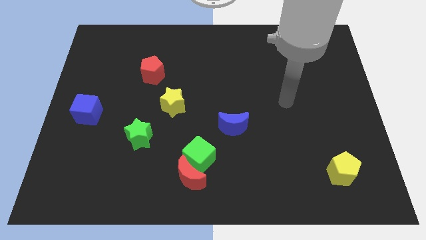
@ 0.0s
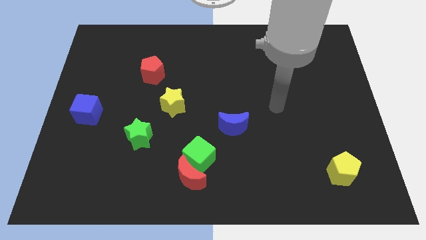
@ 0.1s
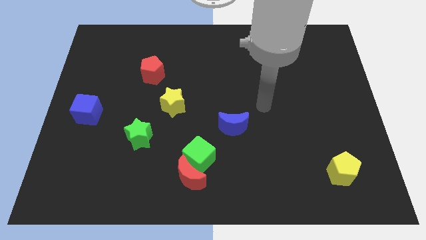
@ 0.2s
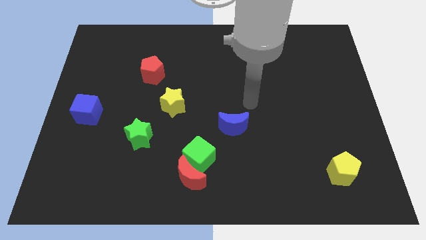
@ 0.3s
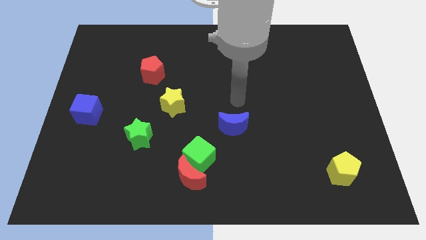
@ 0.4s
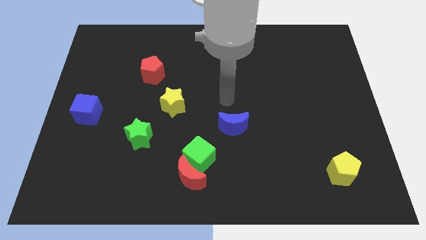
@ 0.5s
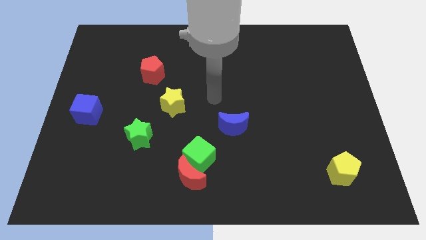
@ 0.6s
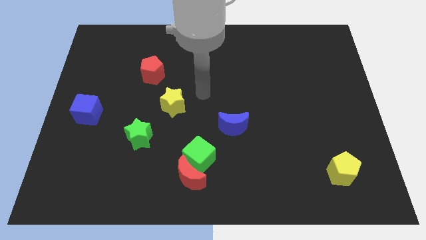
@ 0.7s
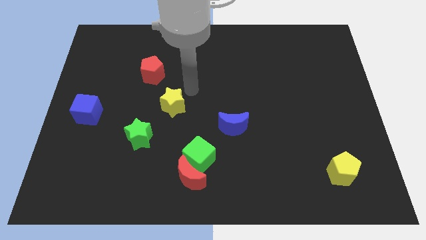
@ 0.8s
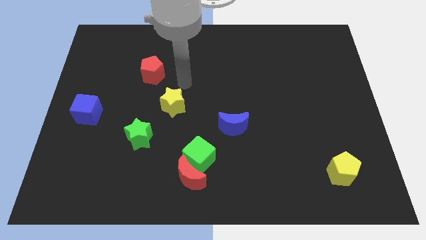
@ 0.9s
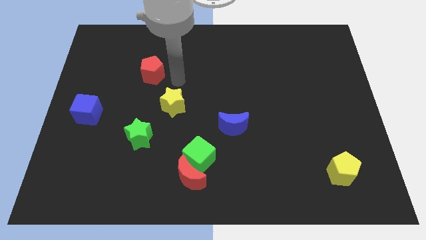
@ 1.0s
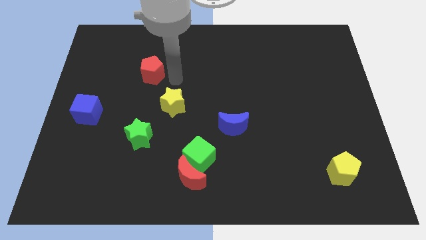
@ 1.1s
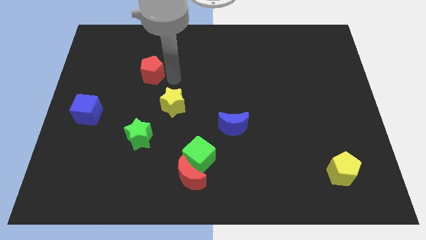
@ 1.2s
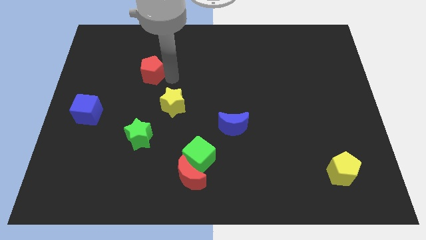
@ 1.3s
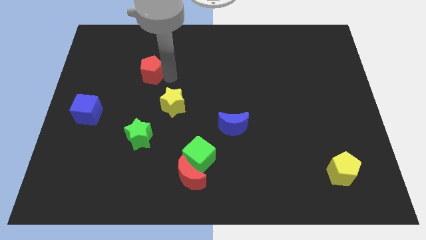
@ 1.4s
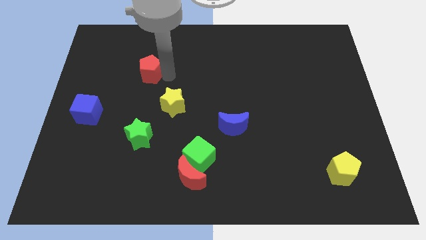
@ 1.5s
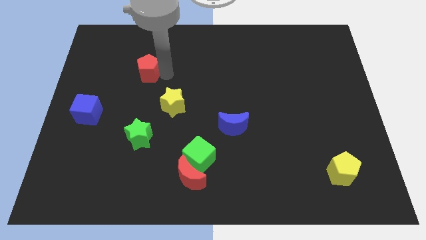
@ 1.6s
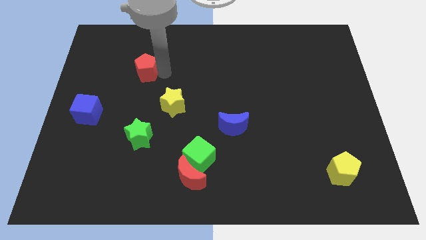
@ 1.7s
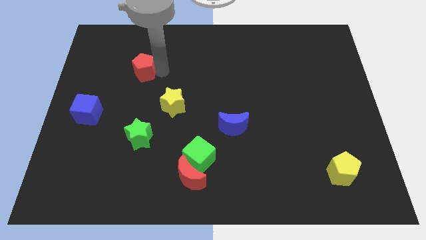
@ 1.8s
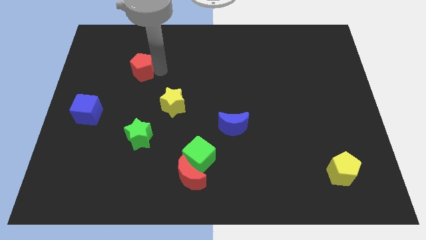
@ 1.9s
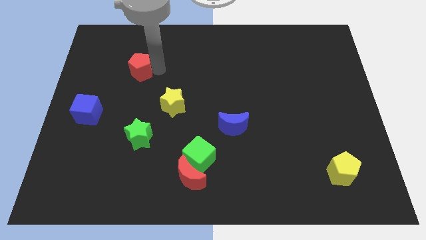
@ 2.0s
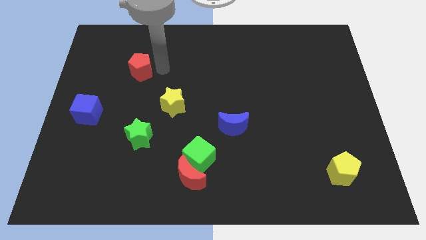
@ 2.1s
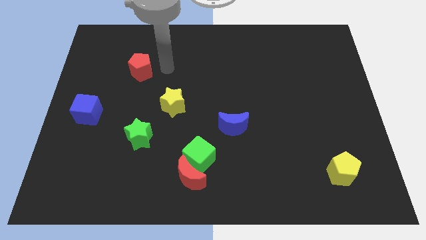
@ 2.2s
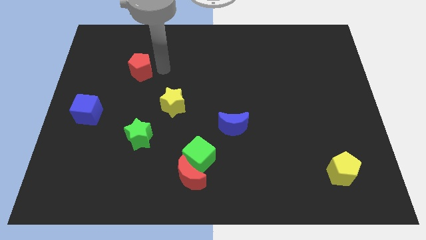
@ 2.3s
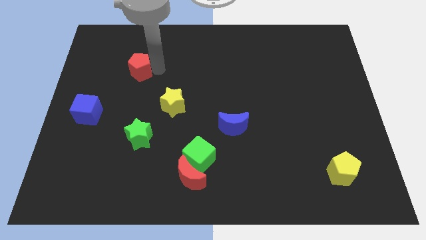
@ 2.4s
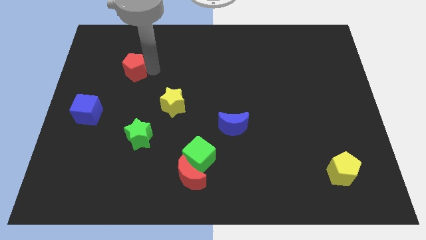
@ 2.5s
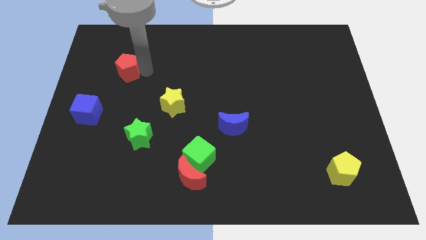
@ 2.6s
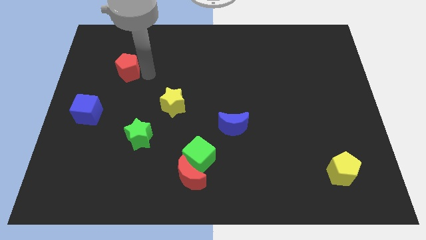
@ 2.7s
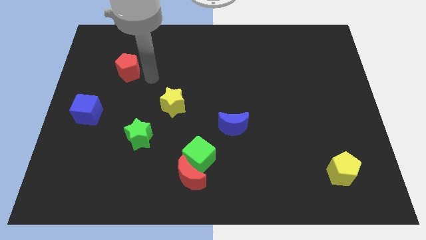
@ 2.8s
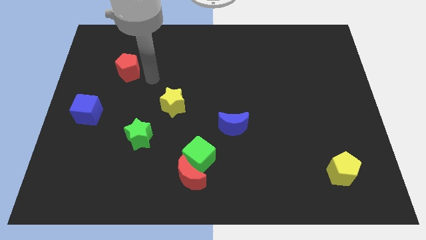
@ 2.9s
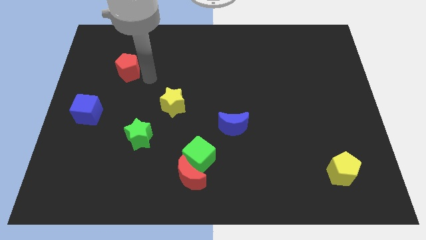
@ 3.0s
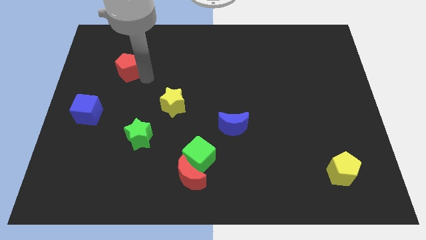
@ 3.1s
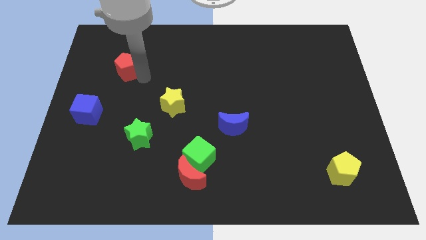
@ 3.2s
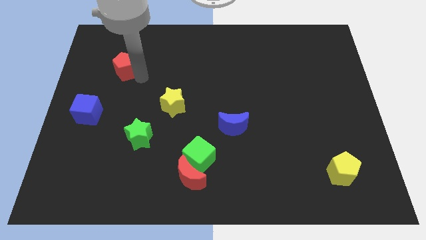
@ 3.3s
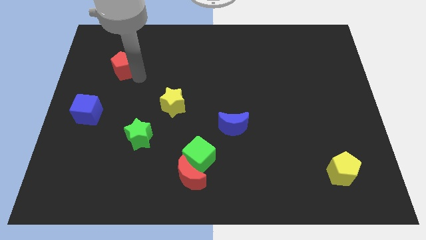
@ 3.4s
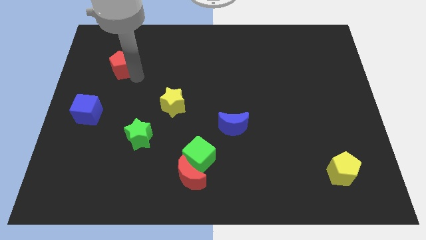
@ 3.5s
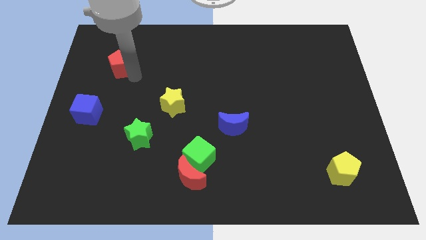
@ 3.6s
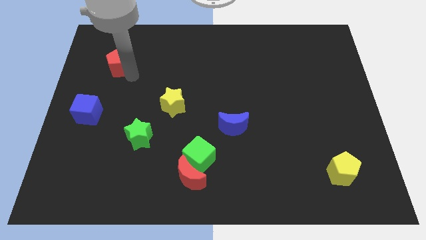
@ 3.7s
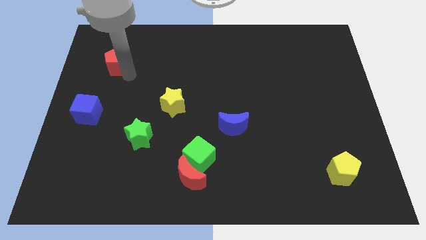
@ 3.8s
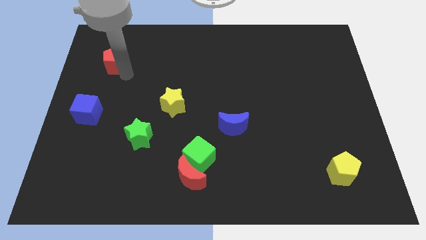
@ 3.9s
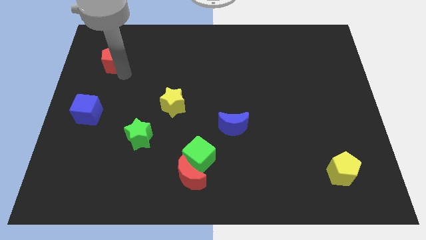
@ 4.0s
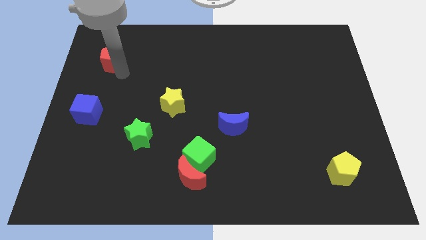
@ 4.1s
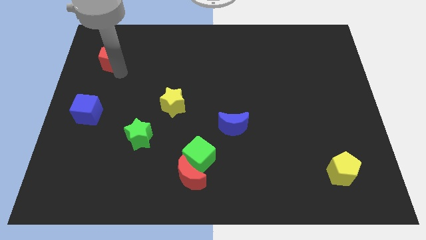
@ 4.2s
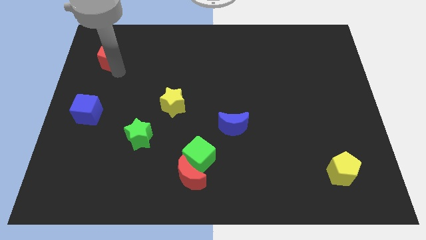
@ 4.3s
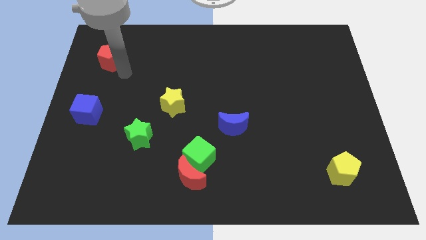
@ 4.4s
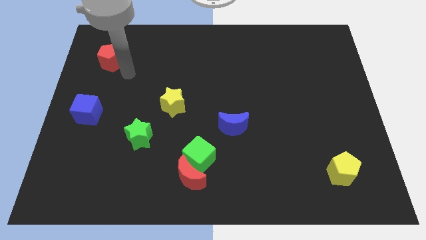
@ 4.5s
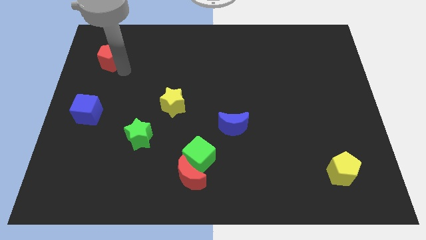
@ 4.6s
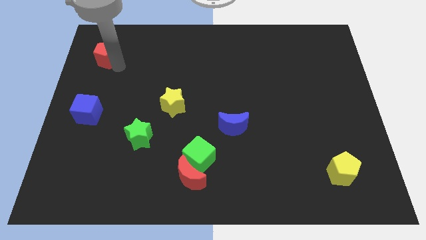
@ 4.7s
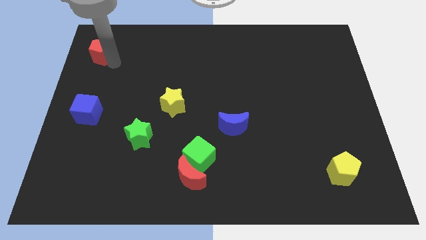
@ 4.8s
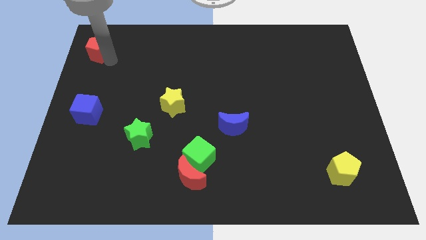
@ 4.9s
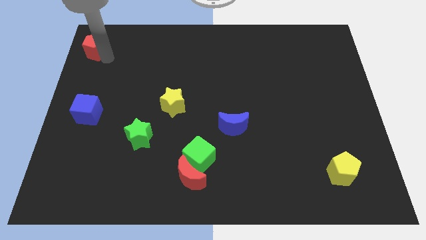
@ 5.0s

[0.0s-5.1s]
put the red pentagon to the top left of the board

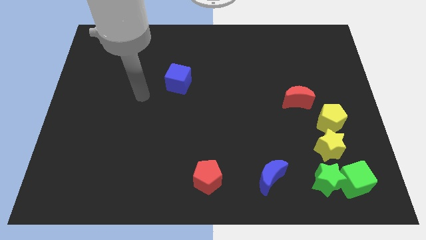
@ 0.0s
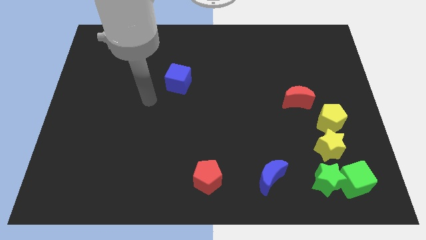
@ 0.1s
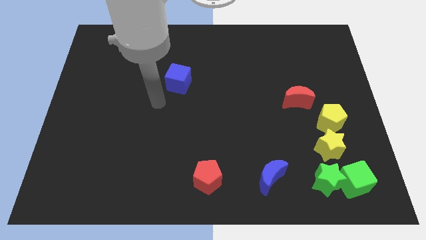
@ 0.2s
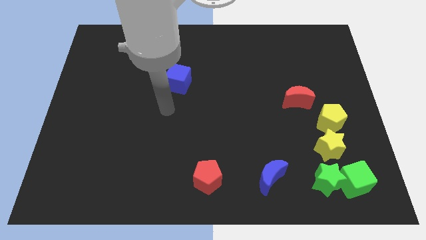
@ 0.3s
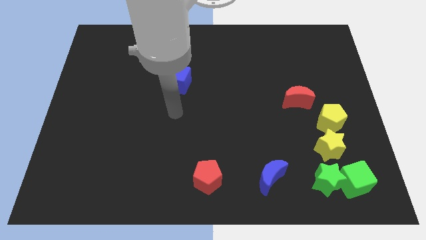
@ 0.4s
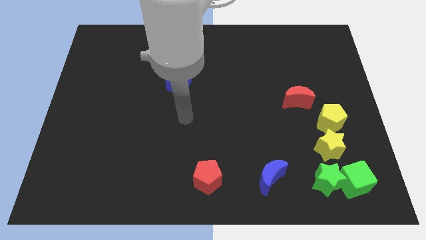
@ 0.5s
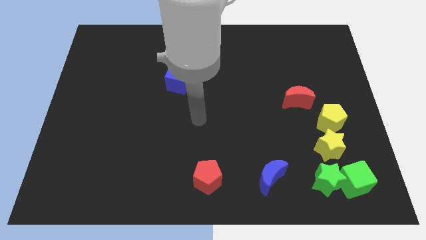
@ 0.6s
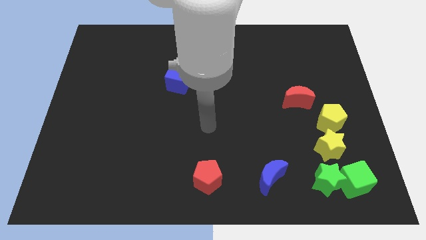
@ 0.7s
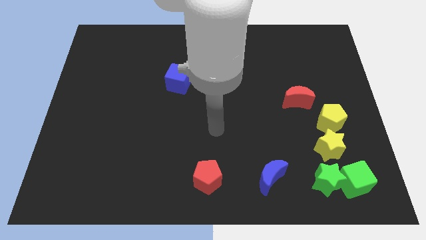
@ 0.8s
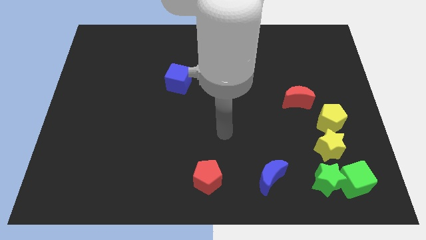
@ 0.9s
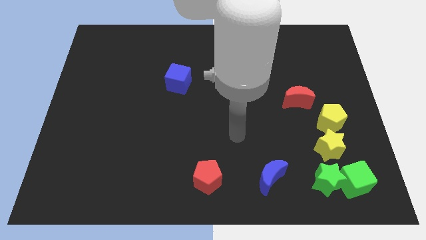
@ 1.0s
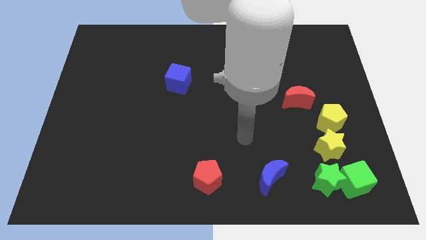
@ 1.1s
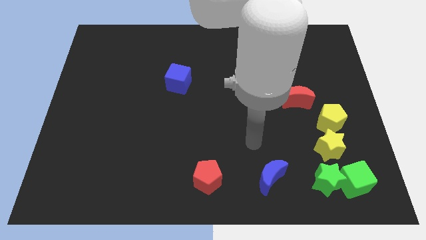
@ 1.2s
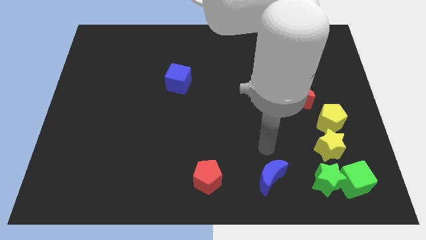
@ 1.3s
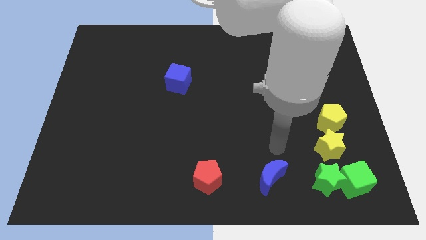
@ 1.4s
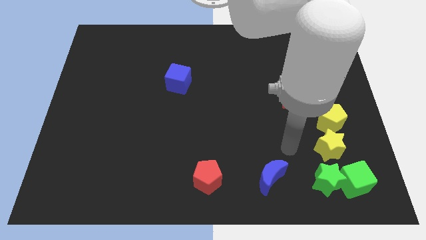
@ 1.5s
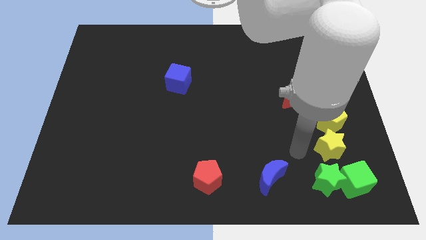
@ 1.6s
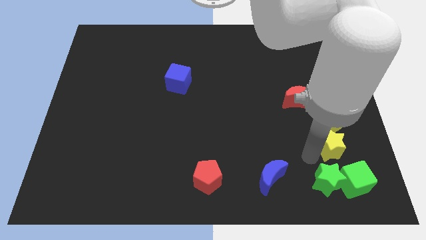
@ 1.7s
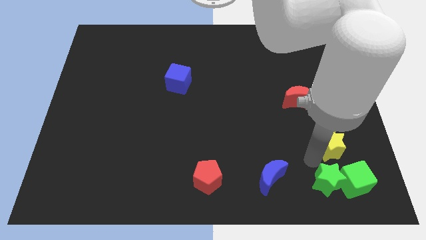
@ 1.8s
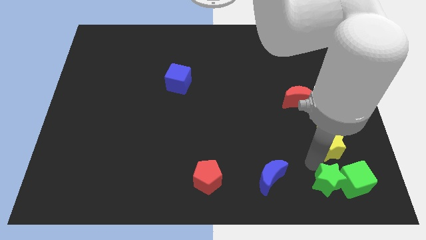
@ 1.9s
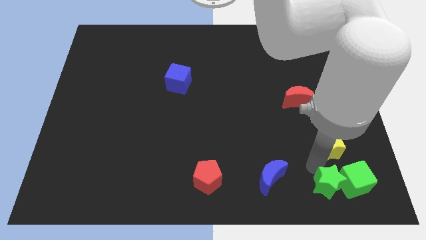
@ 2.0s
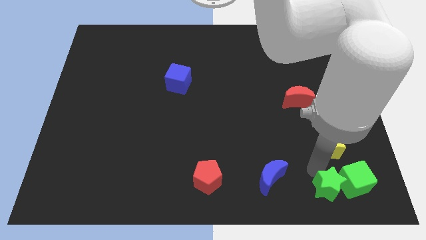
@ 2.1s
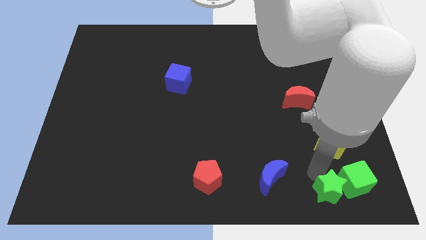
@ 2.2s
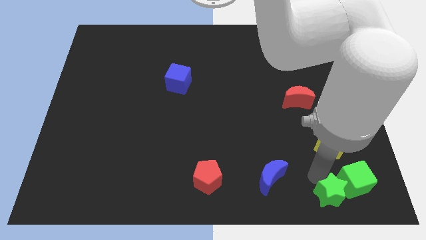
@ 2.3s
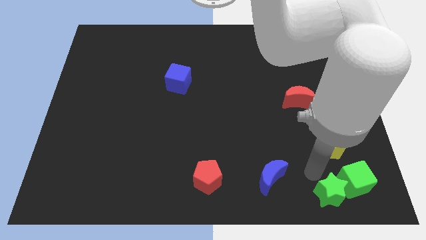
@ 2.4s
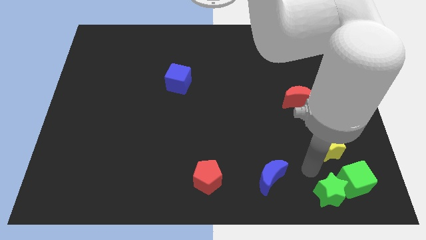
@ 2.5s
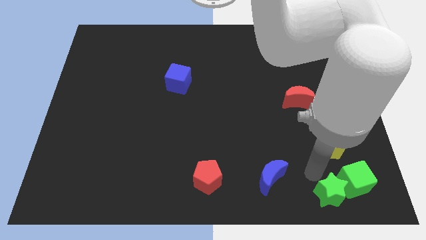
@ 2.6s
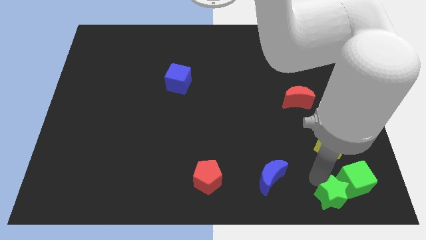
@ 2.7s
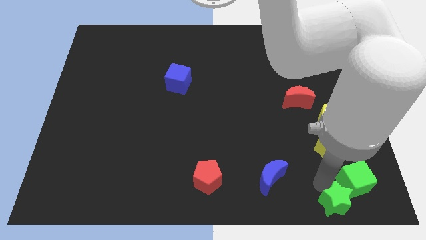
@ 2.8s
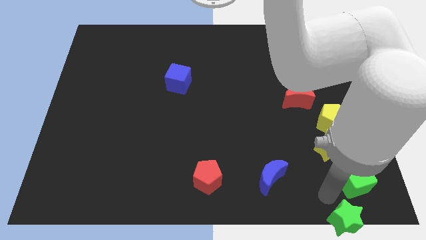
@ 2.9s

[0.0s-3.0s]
put the green star to the bottom right of the board
